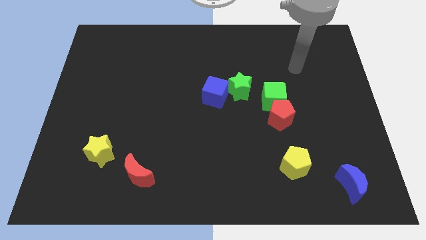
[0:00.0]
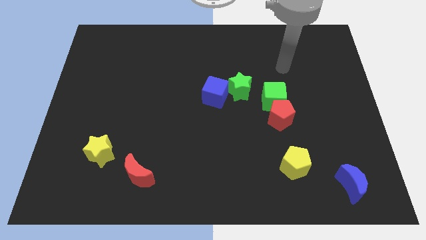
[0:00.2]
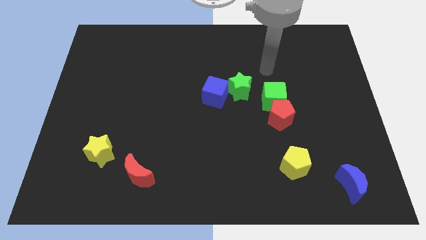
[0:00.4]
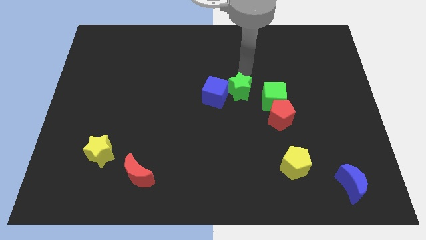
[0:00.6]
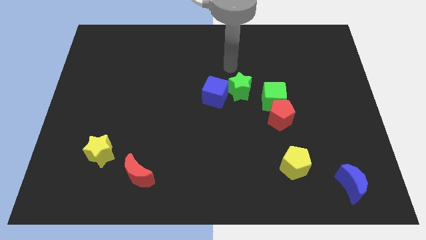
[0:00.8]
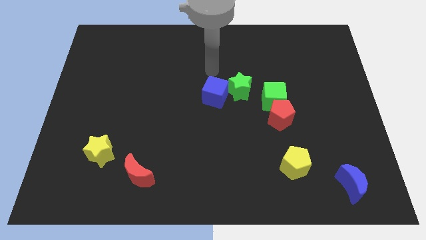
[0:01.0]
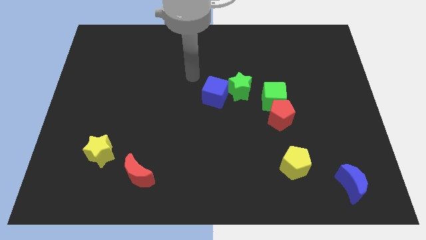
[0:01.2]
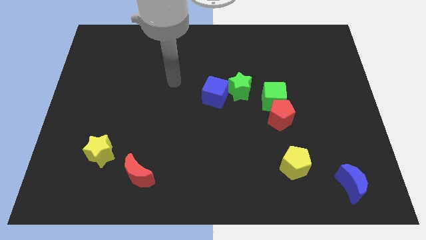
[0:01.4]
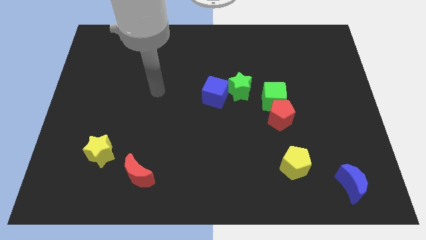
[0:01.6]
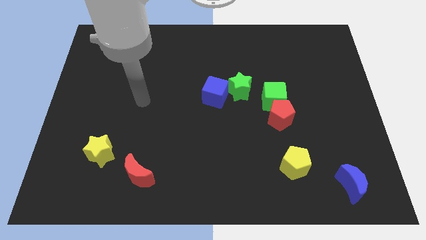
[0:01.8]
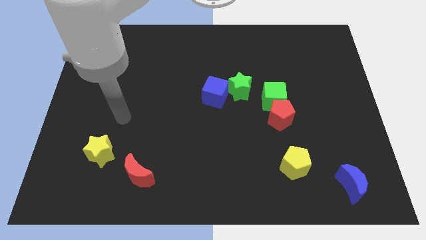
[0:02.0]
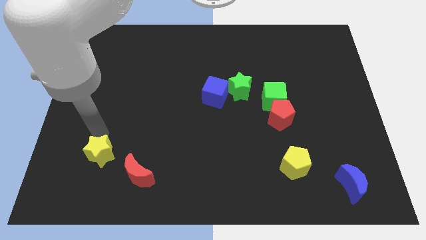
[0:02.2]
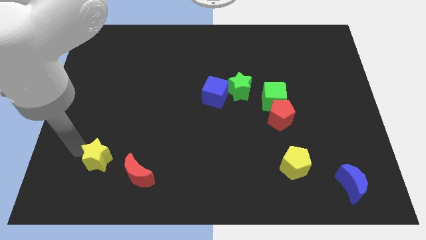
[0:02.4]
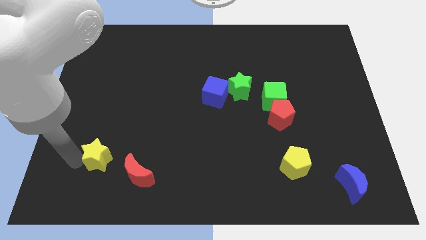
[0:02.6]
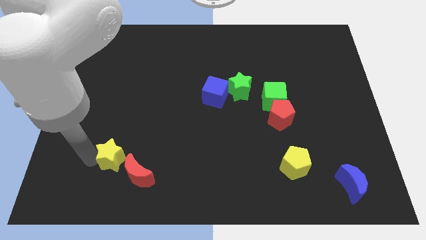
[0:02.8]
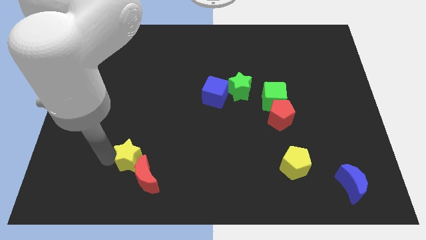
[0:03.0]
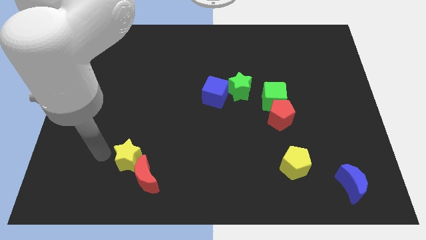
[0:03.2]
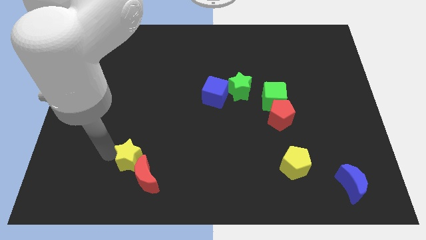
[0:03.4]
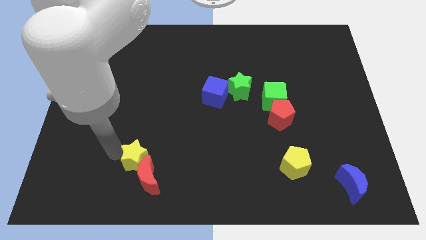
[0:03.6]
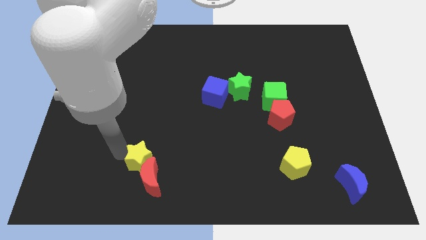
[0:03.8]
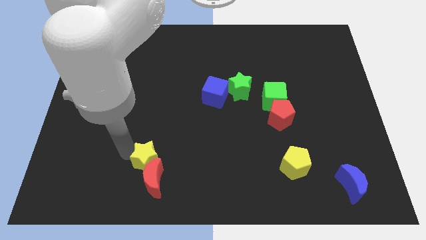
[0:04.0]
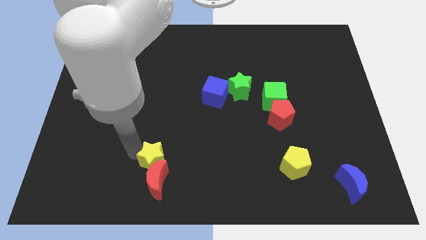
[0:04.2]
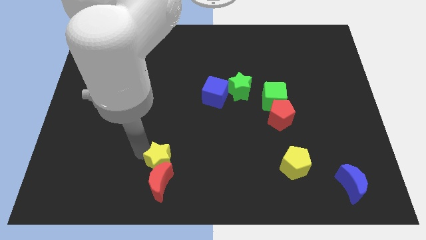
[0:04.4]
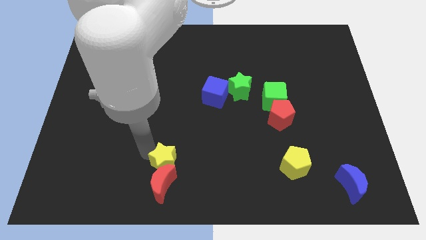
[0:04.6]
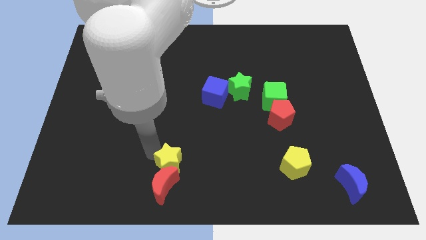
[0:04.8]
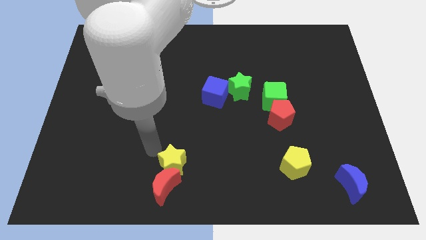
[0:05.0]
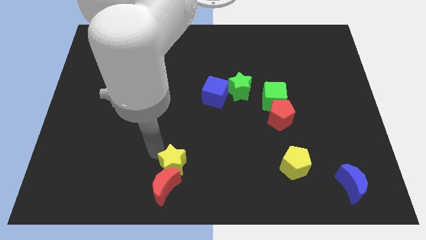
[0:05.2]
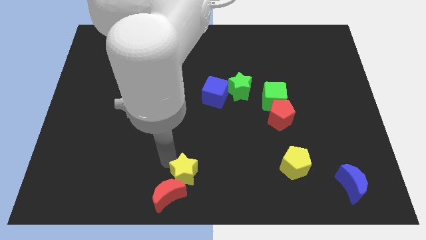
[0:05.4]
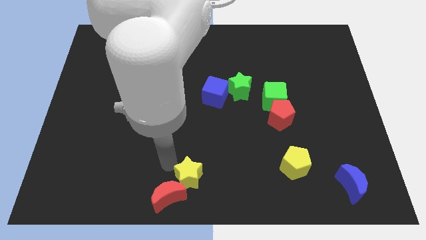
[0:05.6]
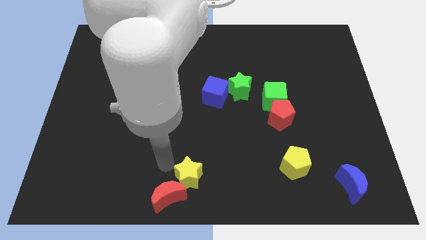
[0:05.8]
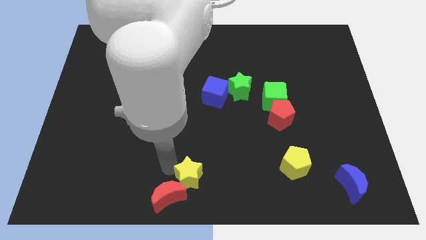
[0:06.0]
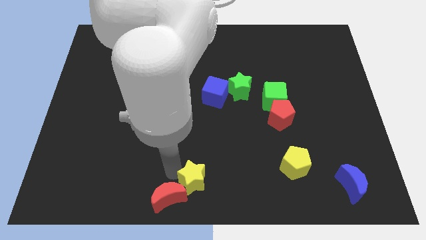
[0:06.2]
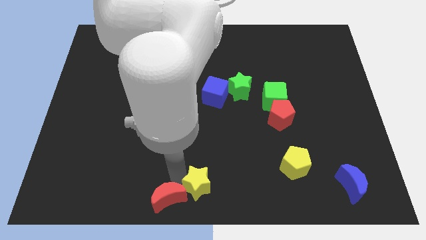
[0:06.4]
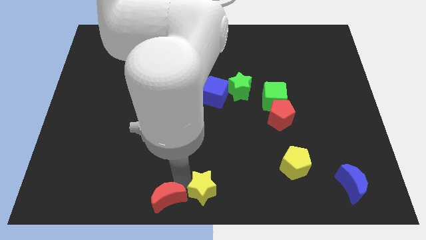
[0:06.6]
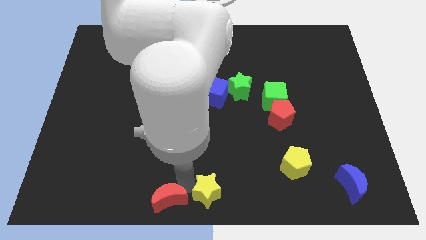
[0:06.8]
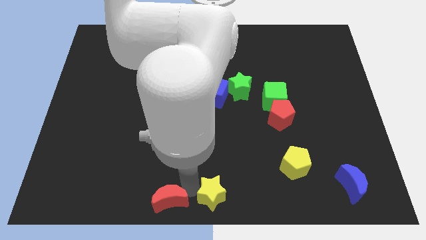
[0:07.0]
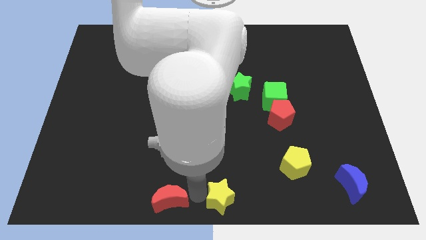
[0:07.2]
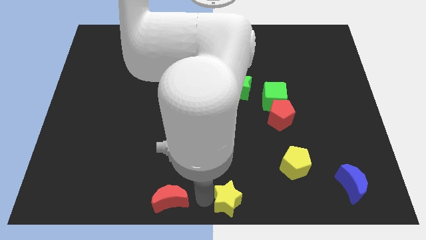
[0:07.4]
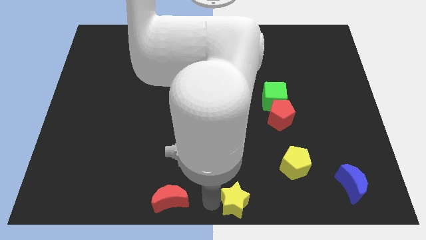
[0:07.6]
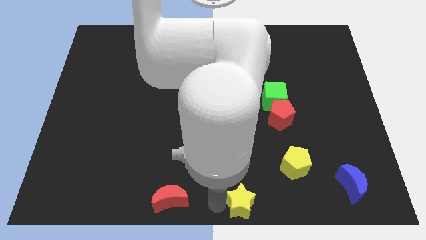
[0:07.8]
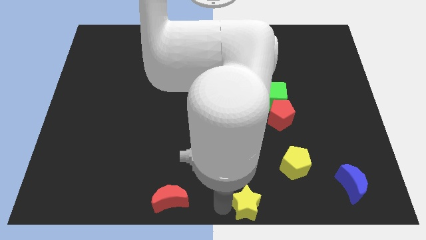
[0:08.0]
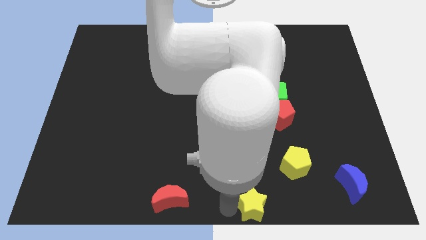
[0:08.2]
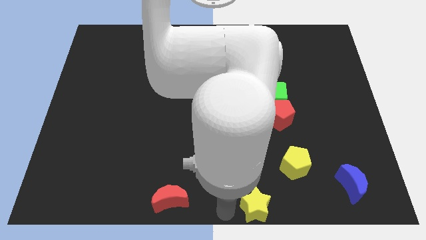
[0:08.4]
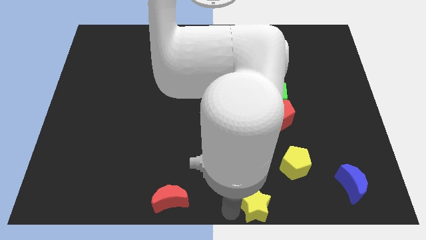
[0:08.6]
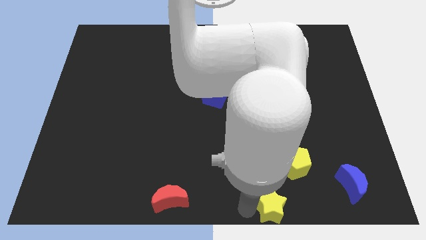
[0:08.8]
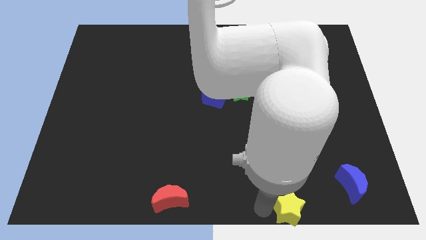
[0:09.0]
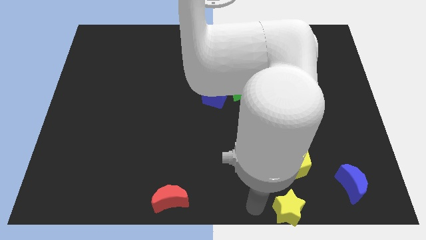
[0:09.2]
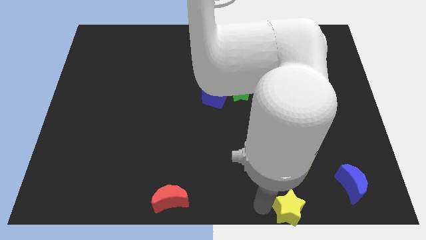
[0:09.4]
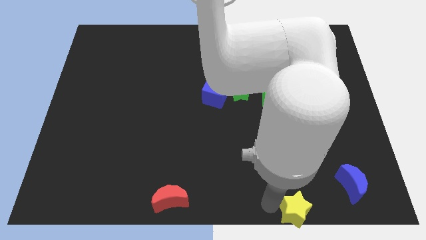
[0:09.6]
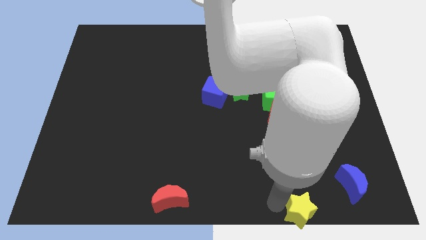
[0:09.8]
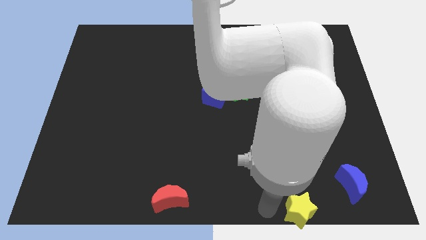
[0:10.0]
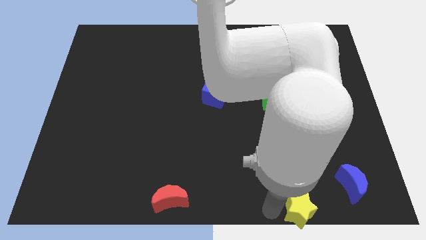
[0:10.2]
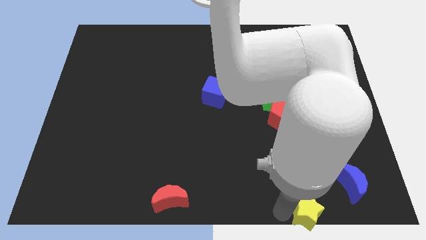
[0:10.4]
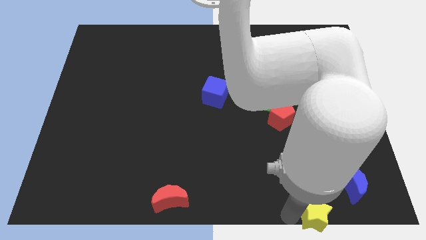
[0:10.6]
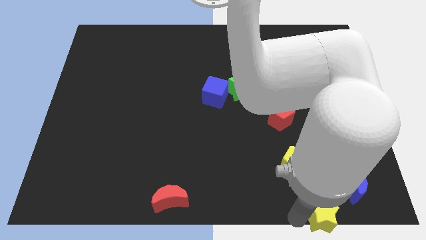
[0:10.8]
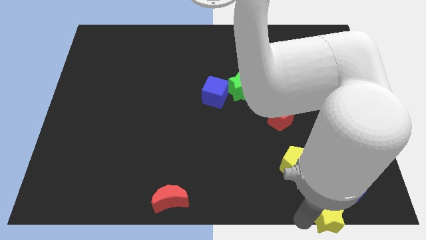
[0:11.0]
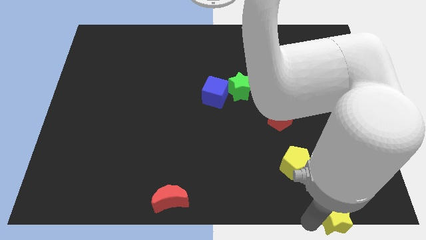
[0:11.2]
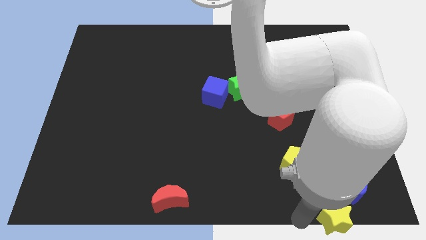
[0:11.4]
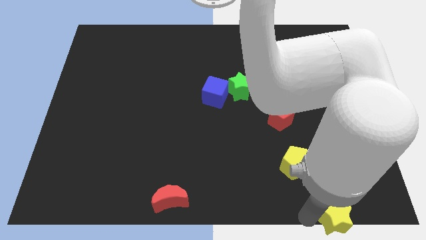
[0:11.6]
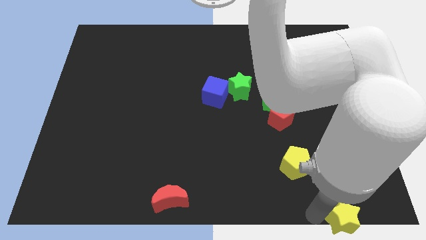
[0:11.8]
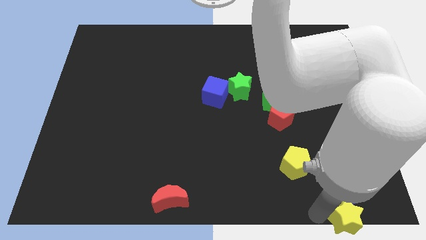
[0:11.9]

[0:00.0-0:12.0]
move the yellow star to the lower right corner
